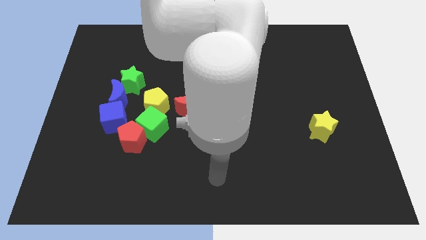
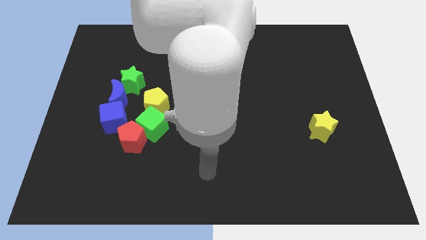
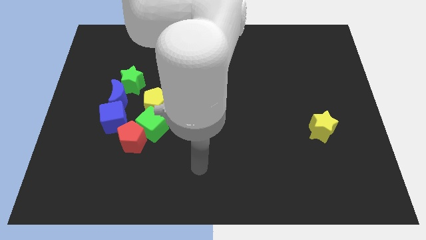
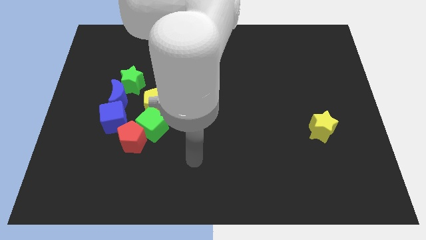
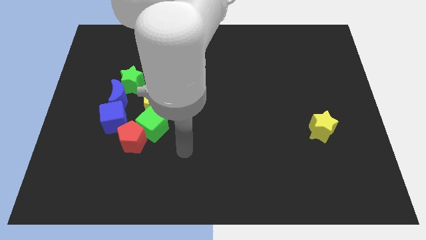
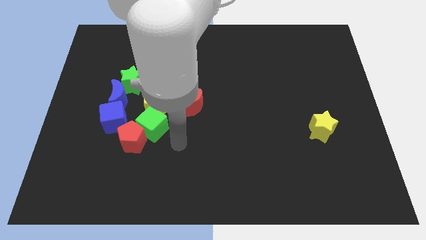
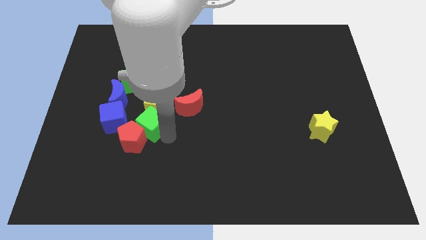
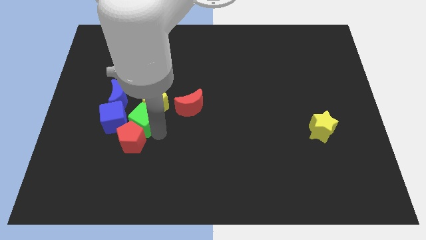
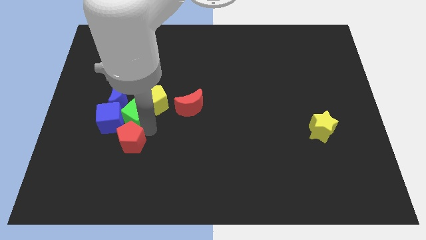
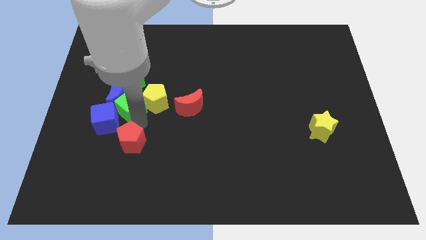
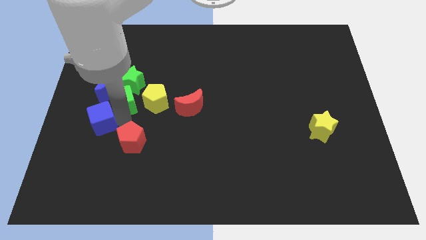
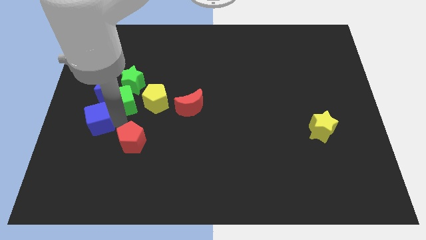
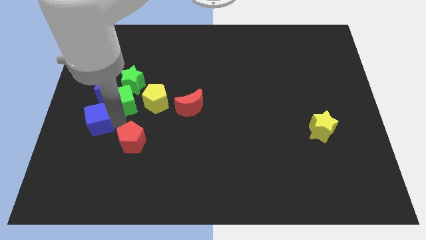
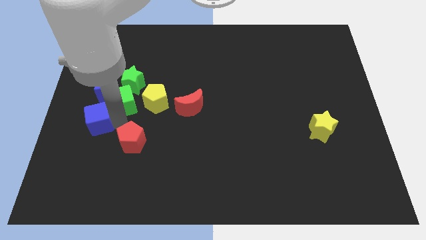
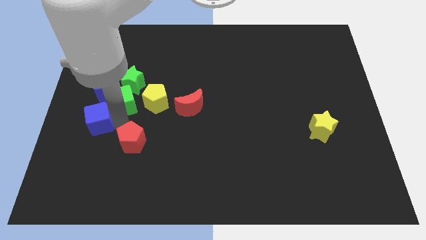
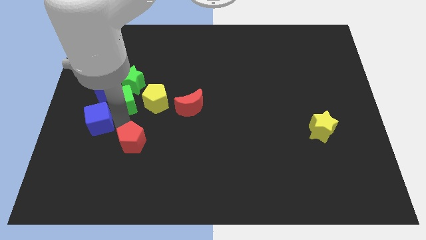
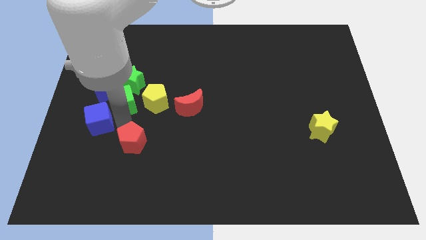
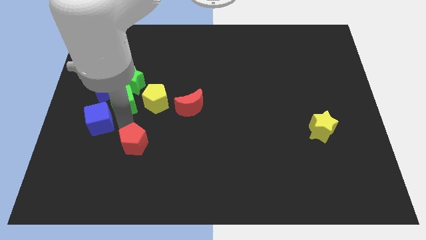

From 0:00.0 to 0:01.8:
separate the red pentagon from the green cube and blue cube

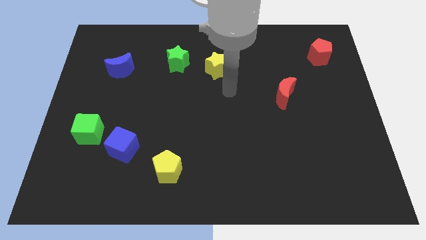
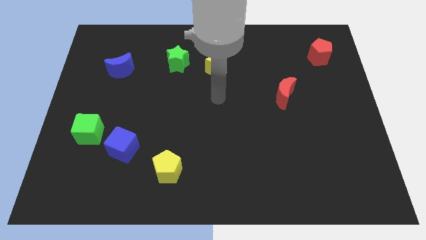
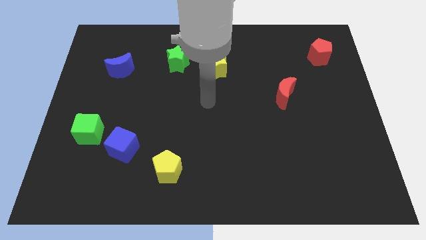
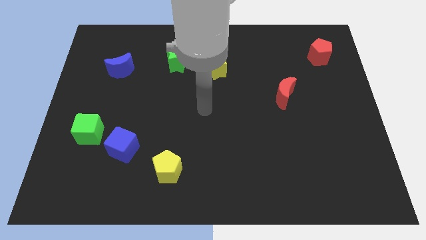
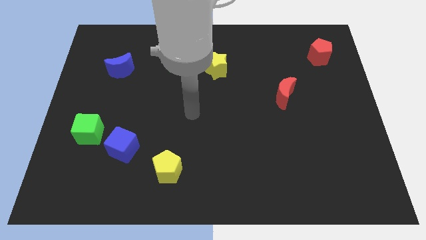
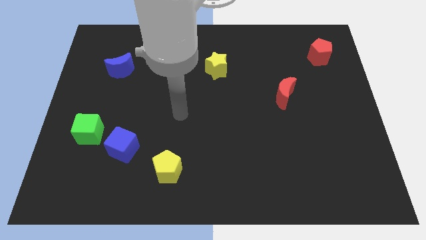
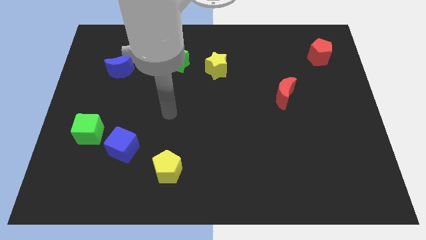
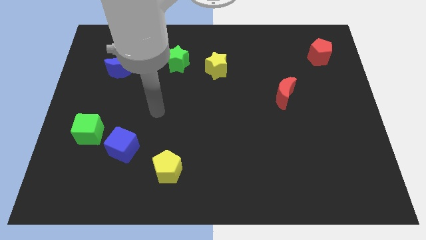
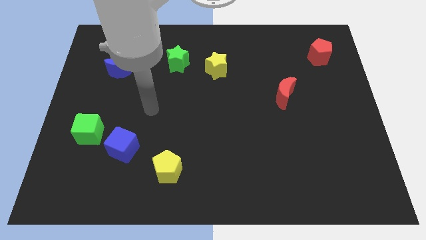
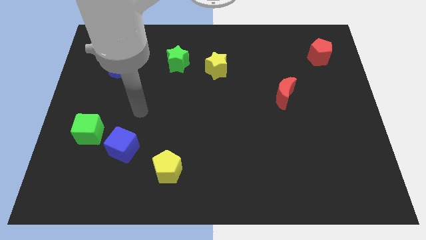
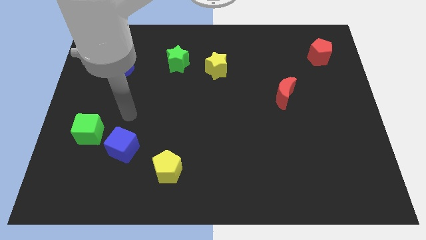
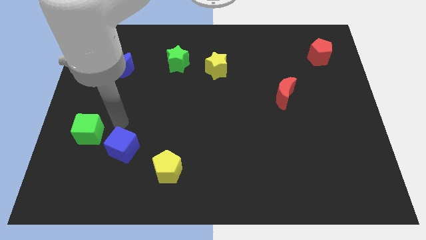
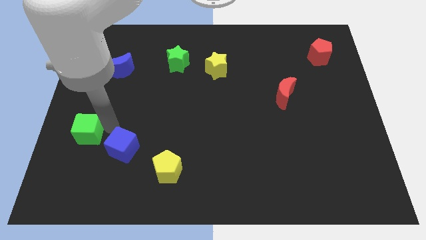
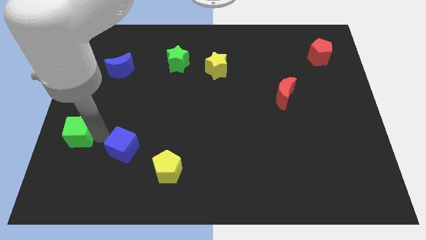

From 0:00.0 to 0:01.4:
move the blue cube away from the green cube

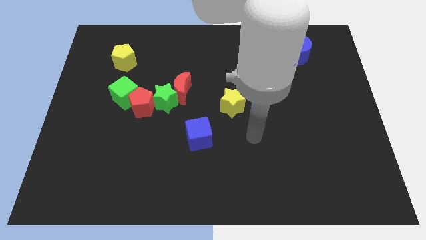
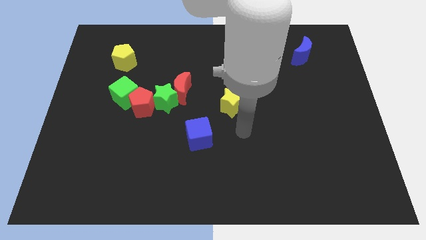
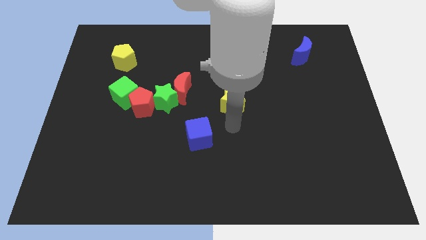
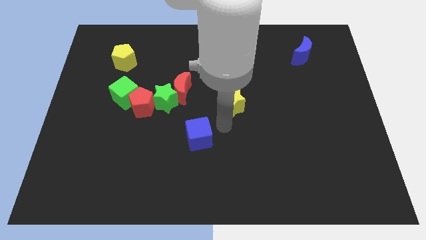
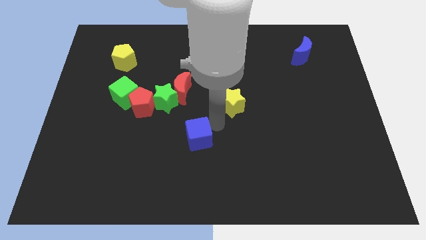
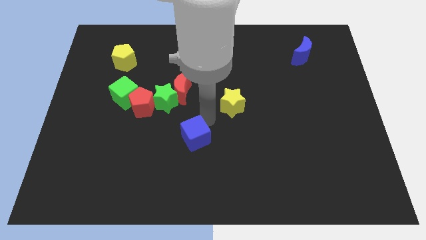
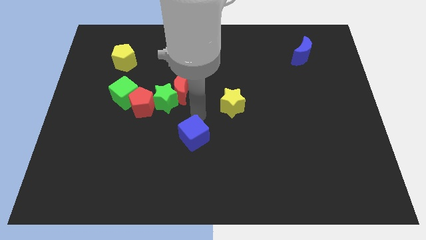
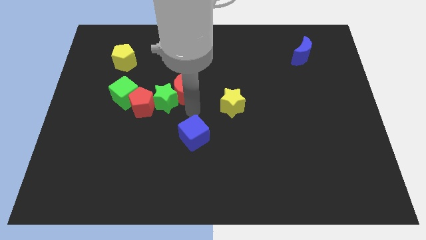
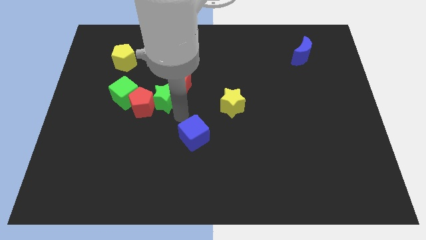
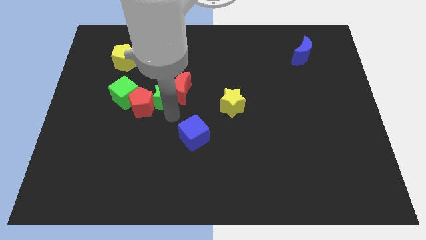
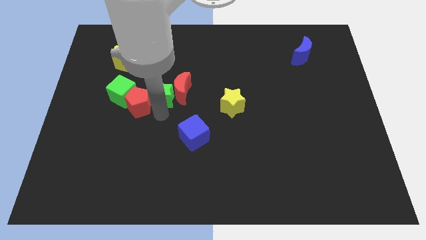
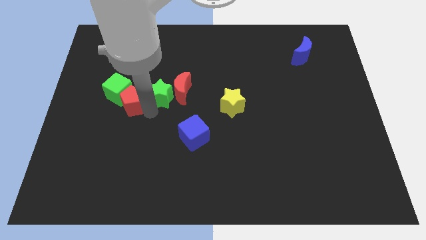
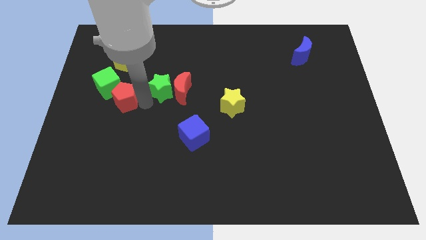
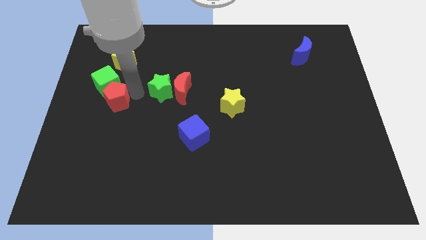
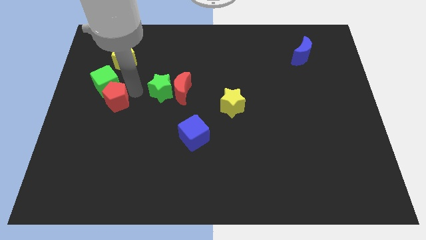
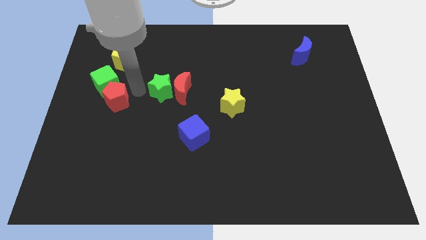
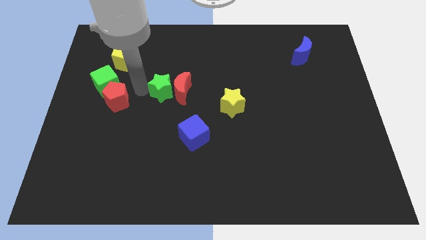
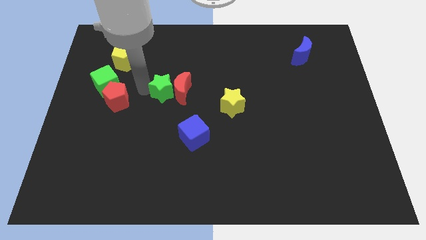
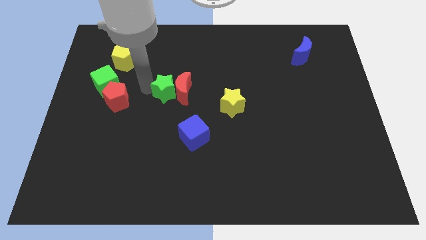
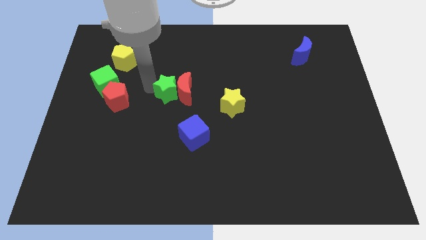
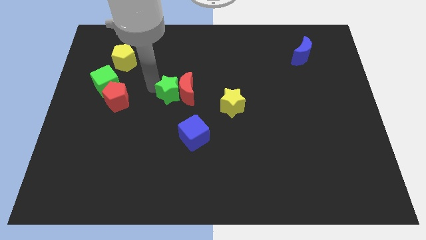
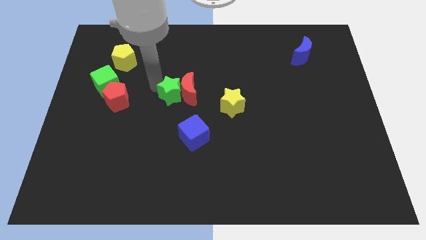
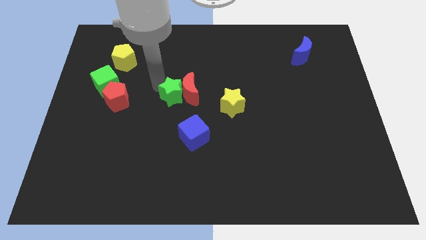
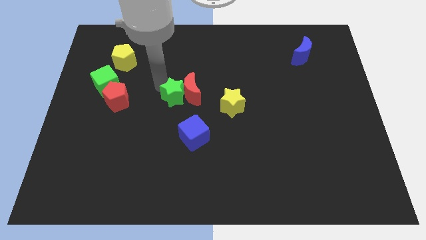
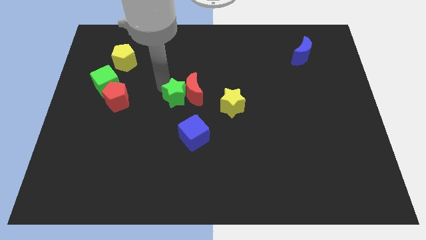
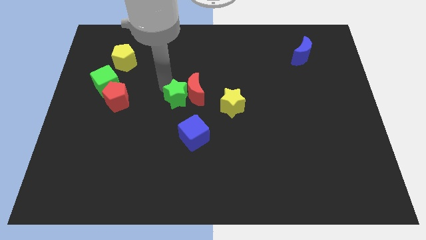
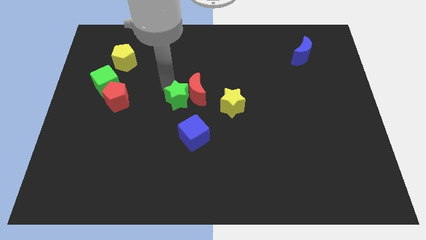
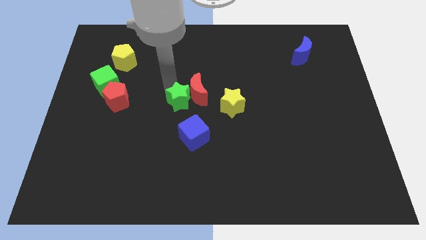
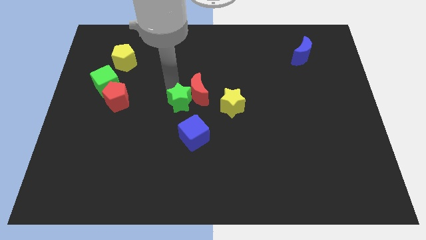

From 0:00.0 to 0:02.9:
pull the green star apart from the group of blocks

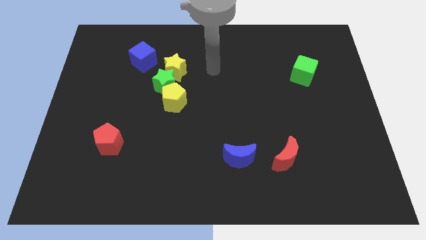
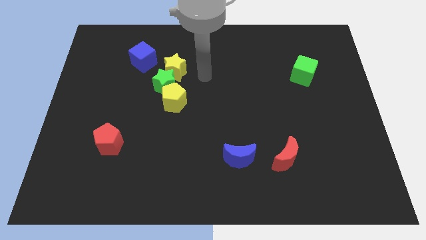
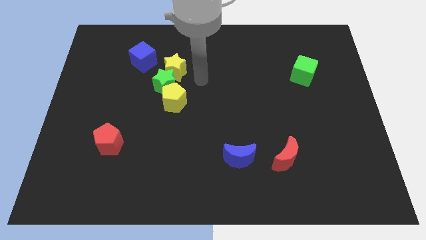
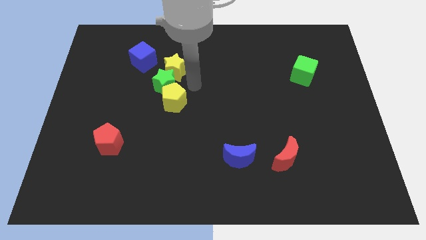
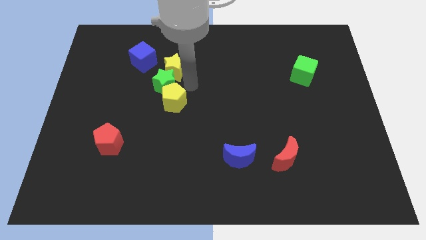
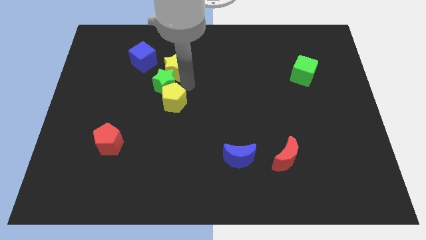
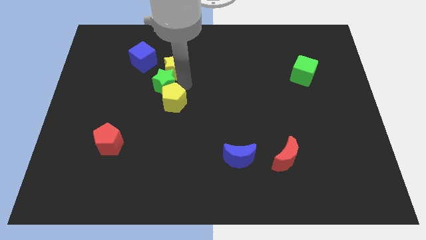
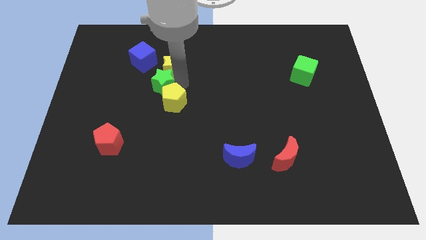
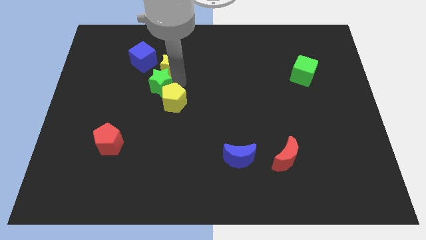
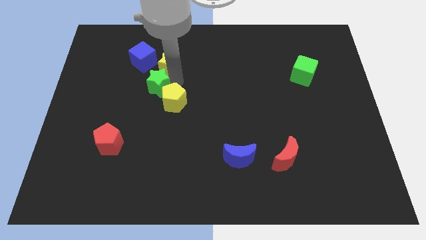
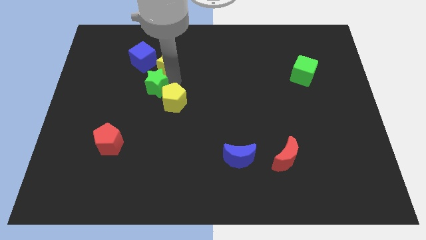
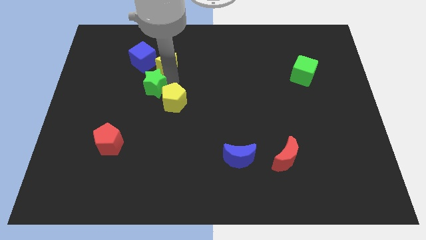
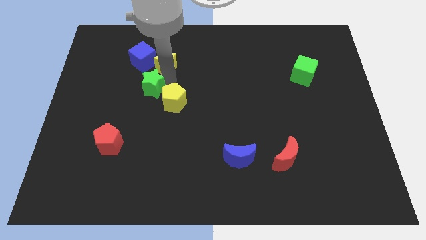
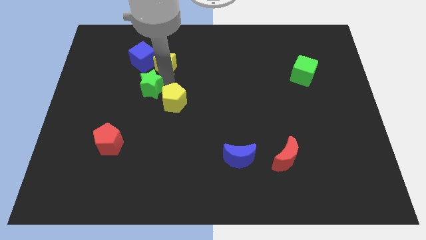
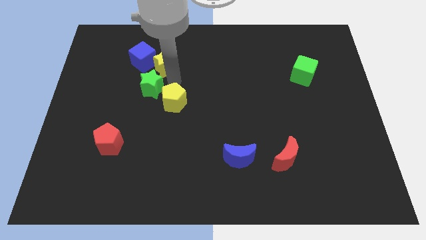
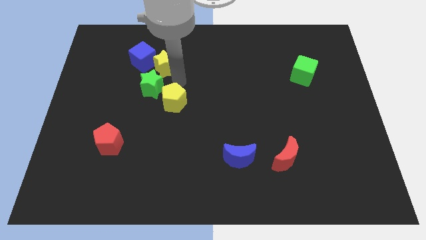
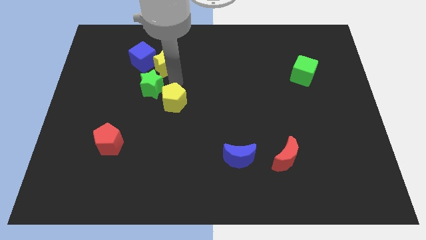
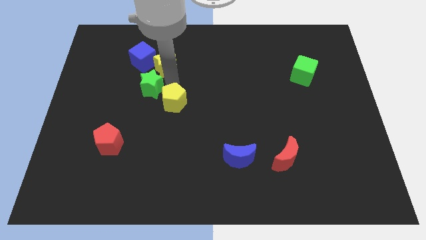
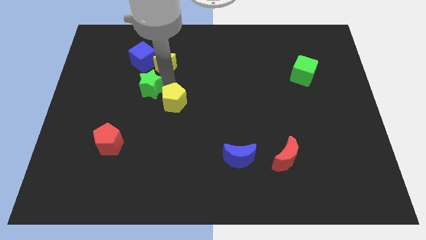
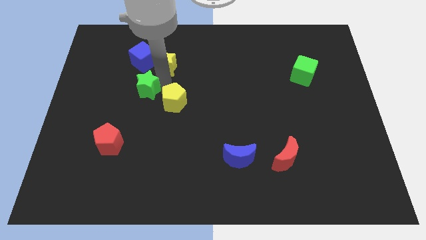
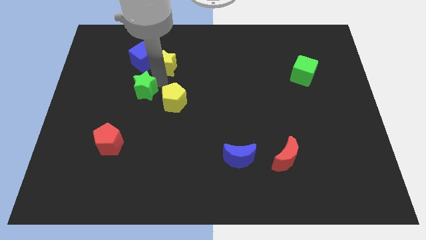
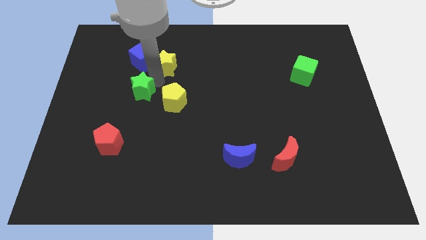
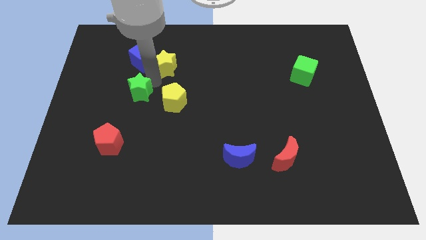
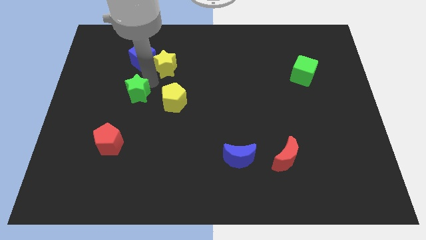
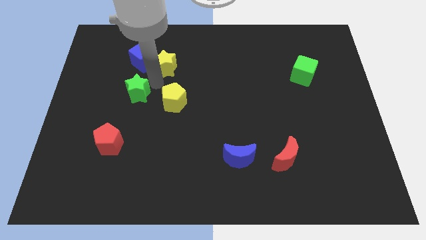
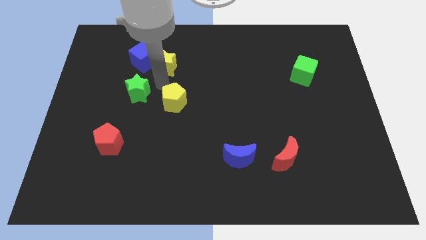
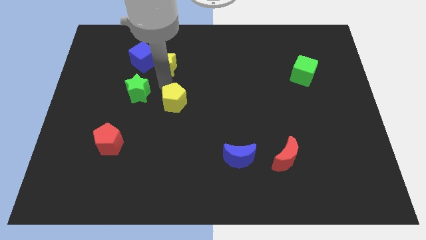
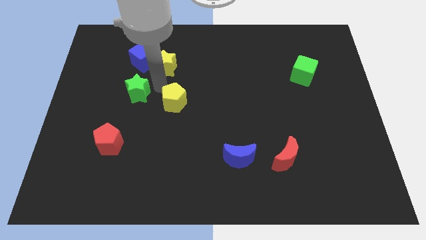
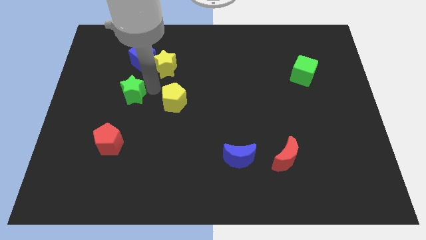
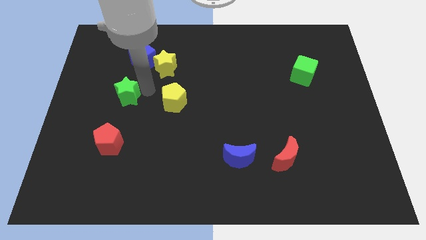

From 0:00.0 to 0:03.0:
move the green star away from the yellow pentagon and yellow star

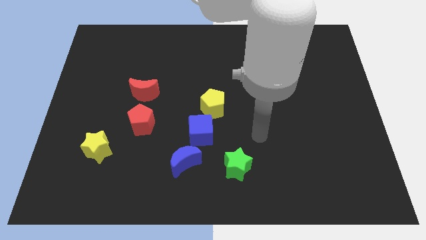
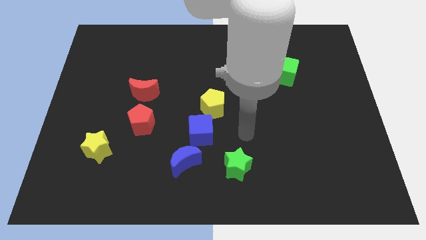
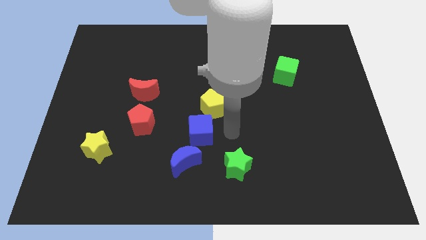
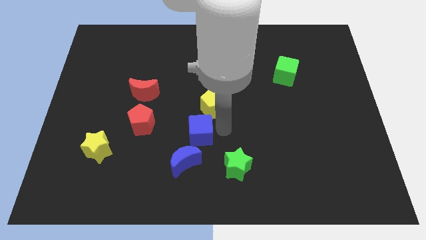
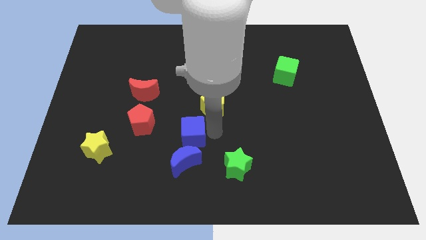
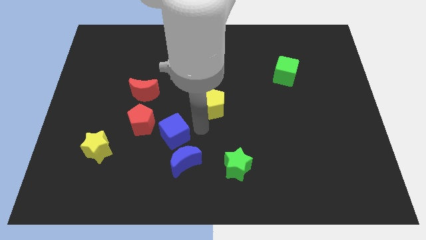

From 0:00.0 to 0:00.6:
separate the yellow pentagon from the blue cube
